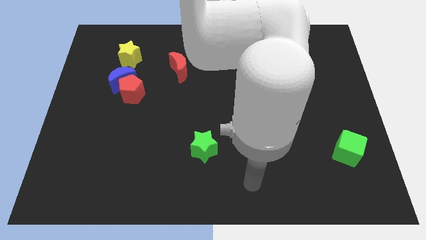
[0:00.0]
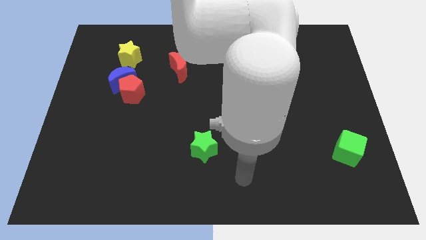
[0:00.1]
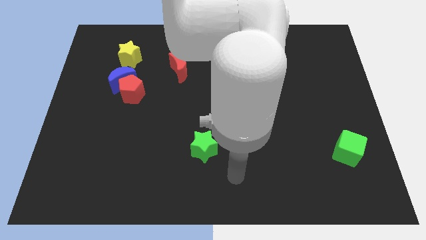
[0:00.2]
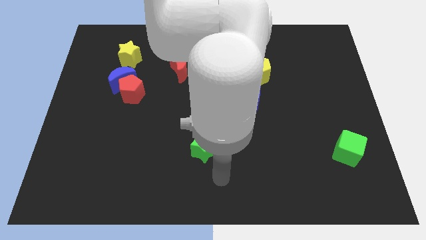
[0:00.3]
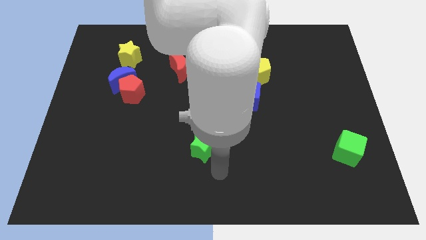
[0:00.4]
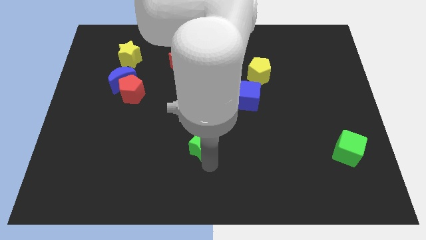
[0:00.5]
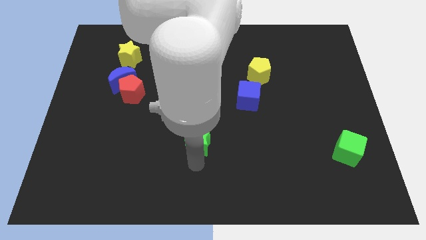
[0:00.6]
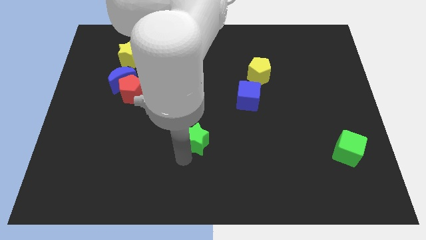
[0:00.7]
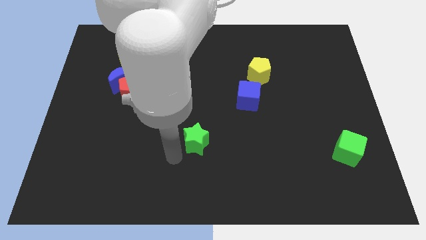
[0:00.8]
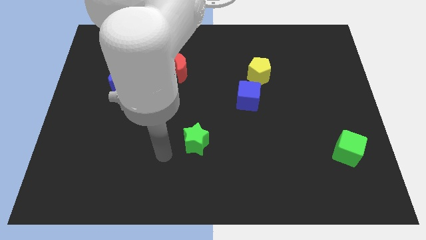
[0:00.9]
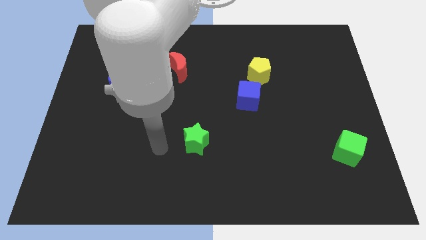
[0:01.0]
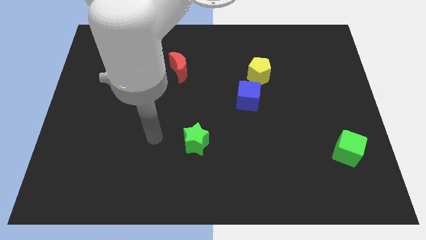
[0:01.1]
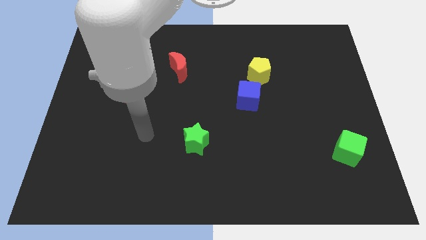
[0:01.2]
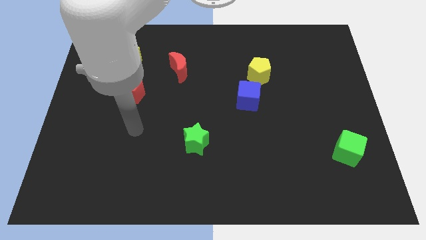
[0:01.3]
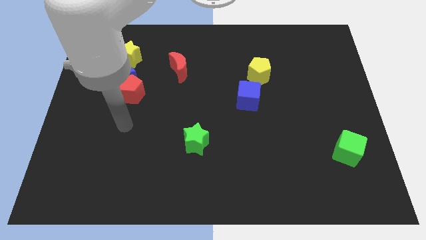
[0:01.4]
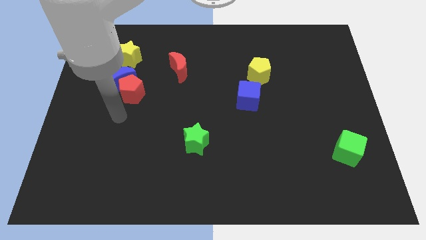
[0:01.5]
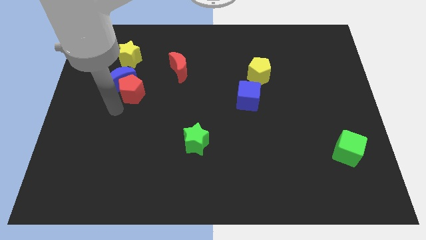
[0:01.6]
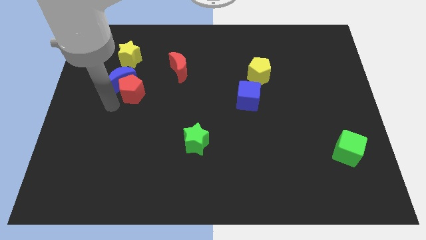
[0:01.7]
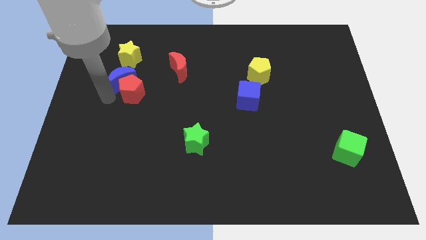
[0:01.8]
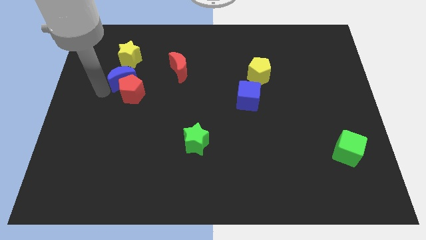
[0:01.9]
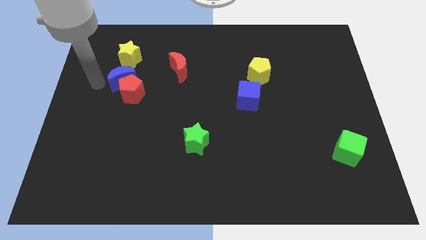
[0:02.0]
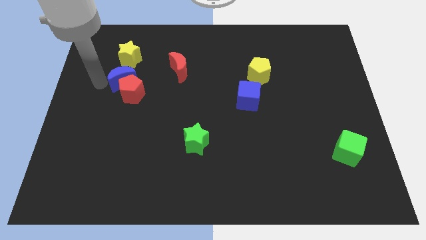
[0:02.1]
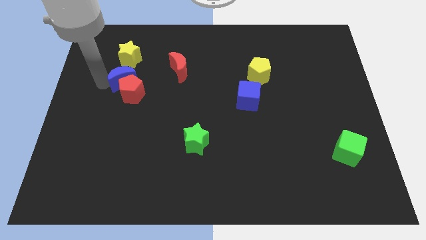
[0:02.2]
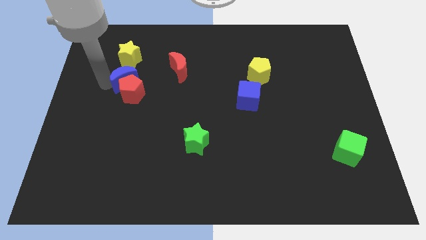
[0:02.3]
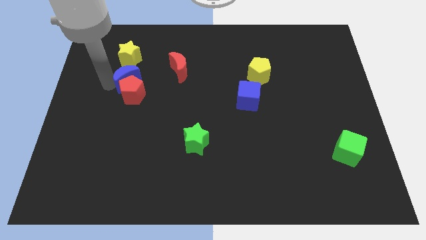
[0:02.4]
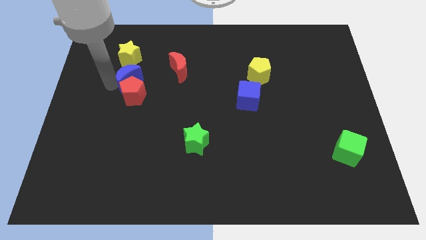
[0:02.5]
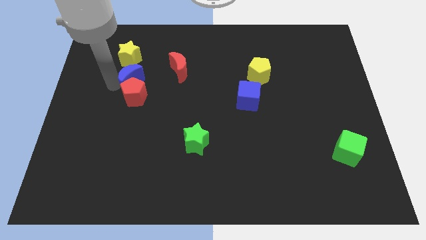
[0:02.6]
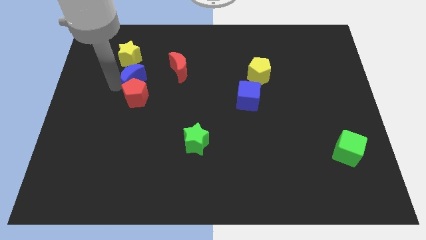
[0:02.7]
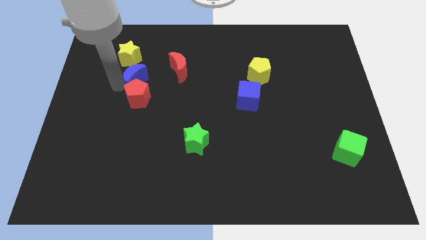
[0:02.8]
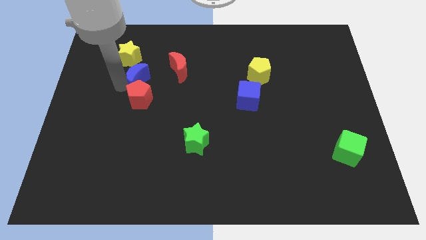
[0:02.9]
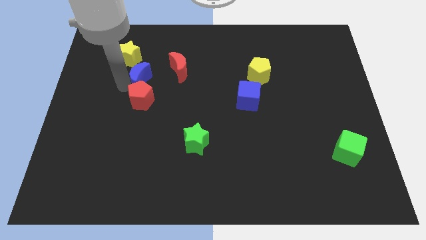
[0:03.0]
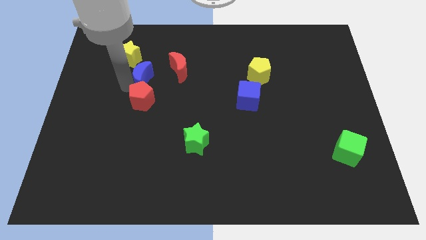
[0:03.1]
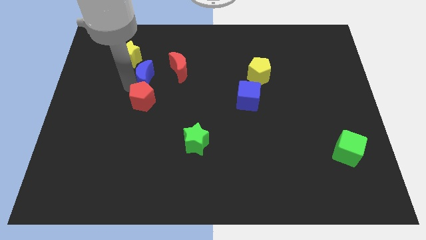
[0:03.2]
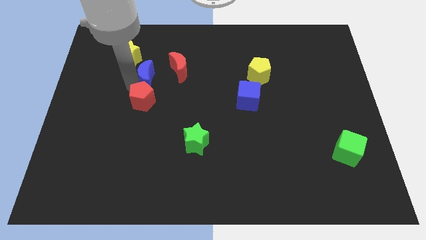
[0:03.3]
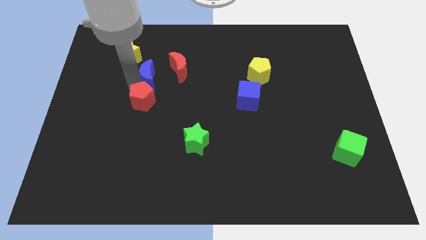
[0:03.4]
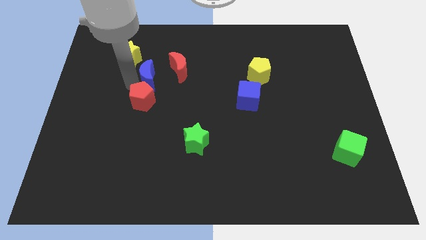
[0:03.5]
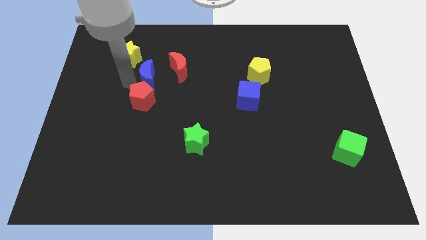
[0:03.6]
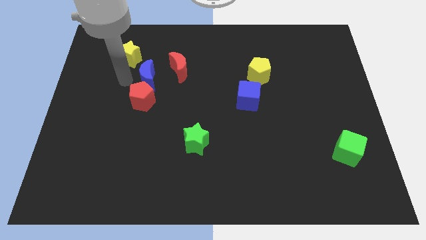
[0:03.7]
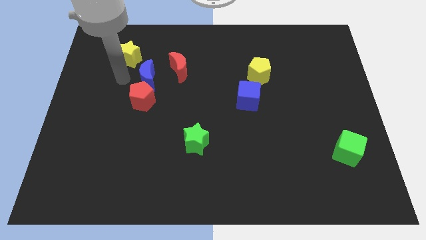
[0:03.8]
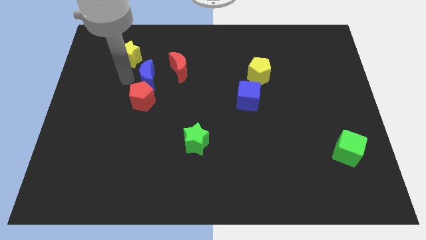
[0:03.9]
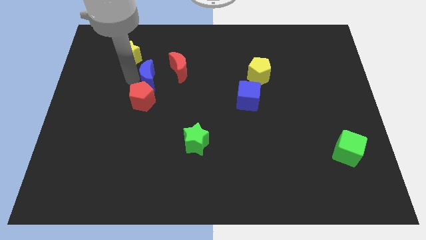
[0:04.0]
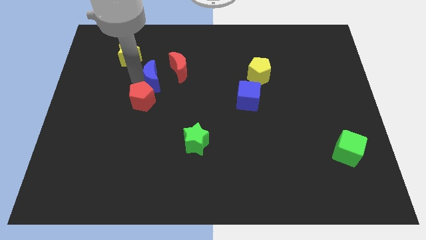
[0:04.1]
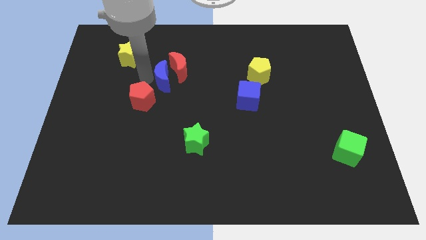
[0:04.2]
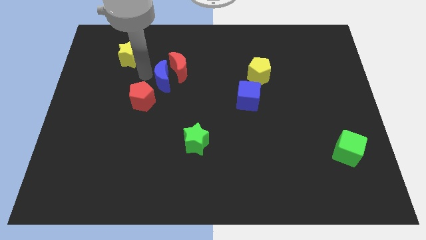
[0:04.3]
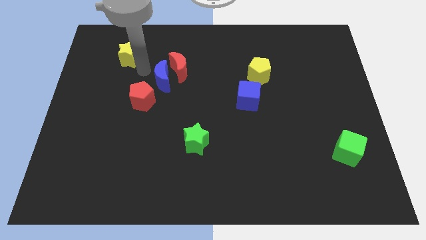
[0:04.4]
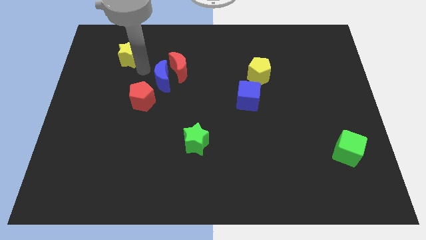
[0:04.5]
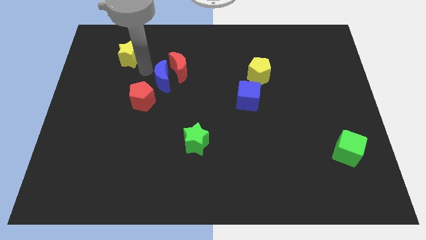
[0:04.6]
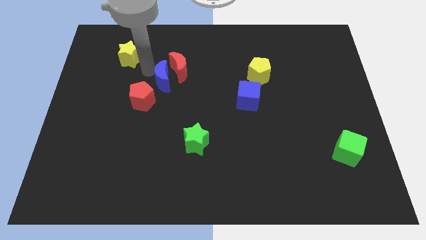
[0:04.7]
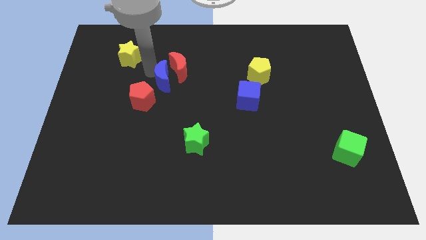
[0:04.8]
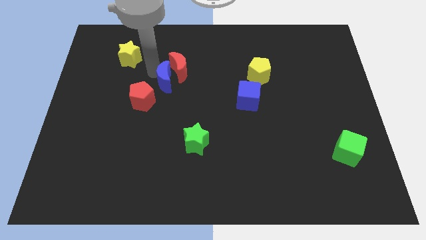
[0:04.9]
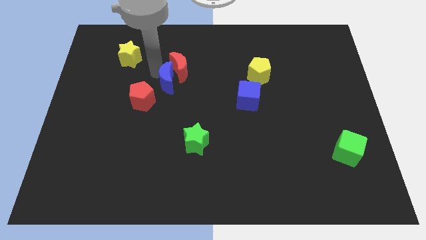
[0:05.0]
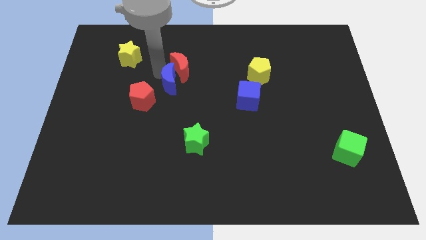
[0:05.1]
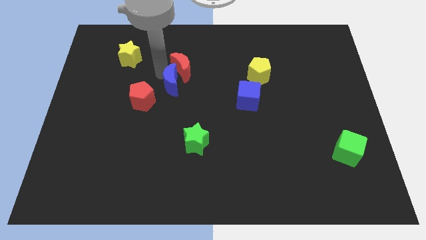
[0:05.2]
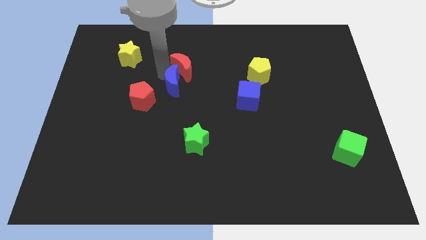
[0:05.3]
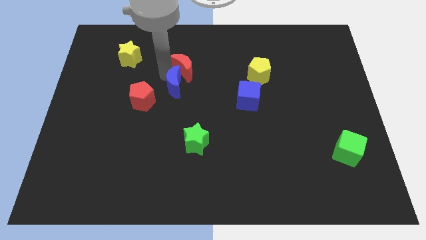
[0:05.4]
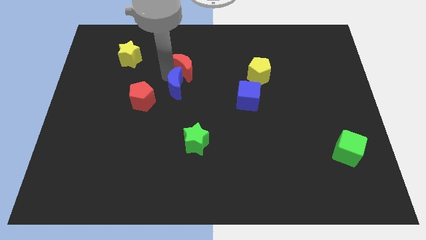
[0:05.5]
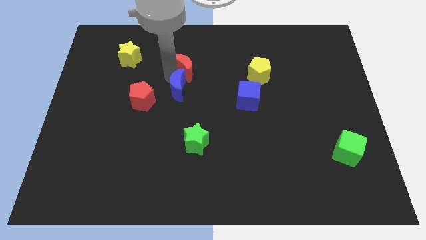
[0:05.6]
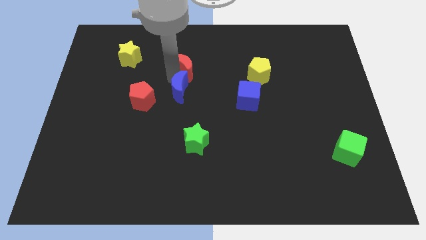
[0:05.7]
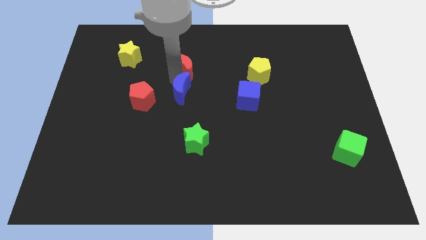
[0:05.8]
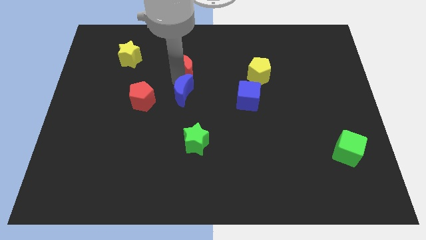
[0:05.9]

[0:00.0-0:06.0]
push the blue moon left of the blue cube
